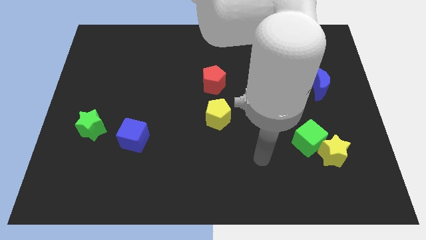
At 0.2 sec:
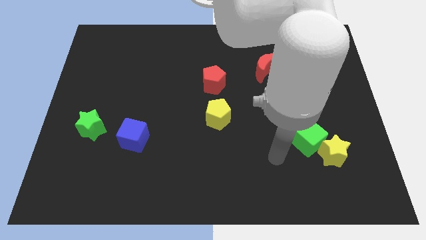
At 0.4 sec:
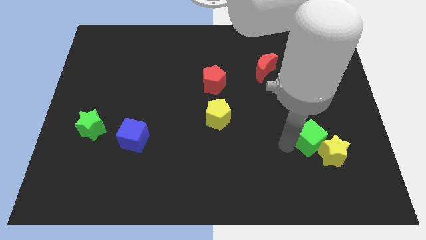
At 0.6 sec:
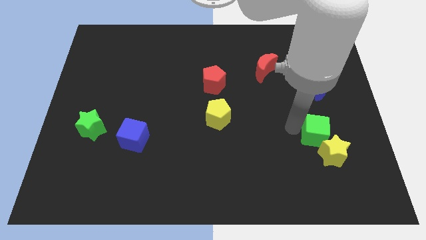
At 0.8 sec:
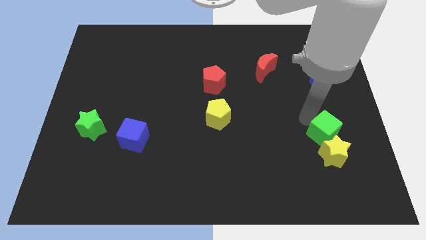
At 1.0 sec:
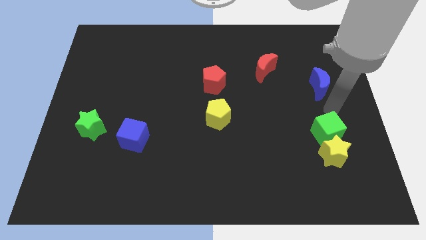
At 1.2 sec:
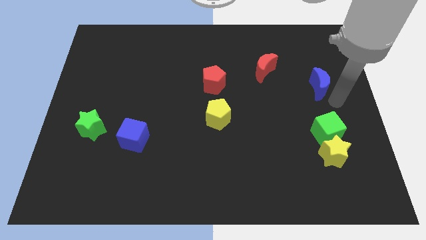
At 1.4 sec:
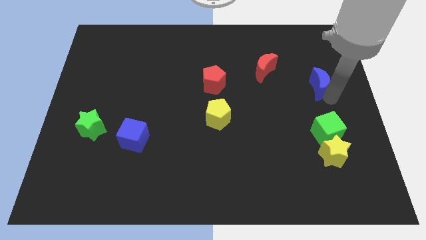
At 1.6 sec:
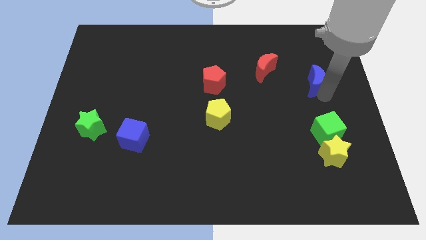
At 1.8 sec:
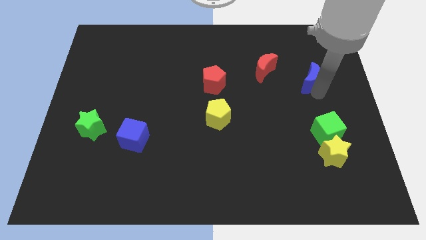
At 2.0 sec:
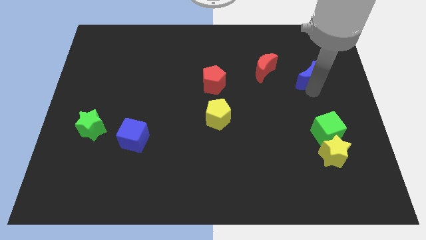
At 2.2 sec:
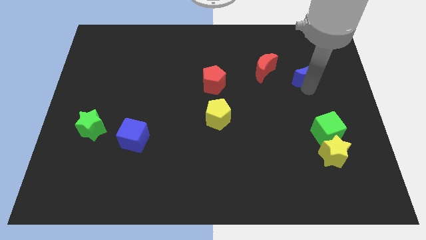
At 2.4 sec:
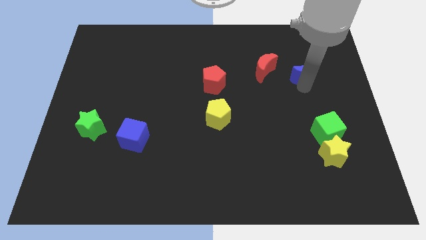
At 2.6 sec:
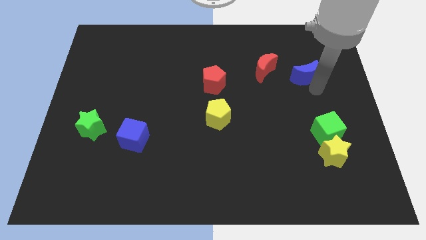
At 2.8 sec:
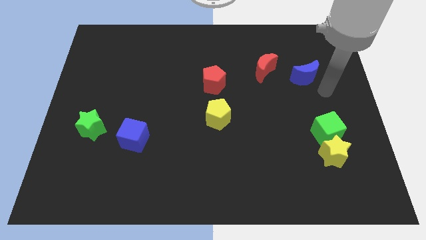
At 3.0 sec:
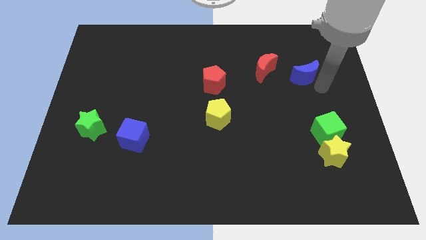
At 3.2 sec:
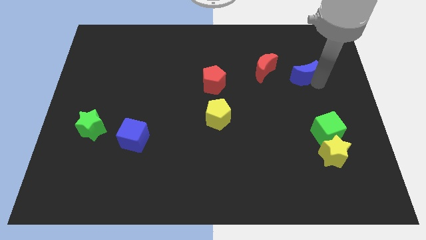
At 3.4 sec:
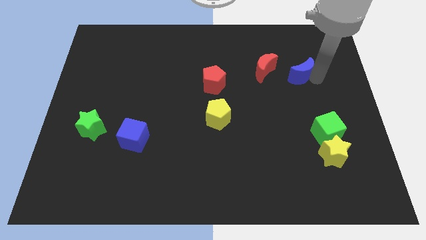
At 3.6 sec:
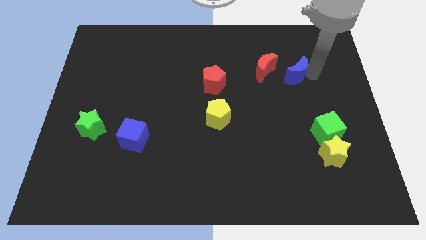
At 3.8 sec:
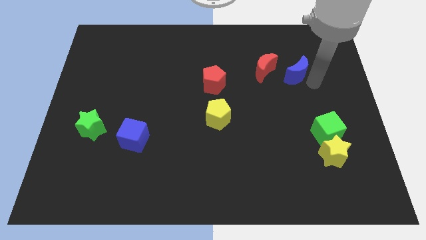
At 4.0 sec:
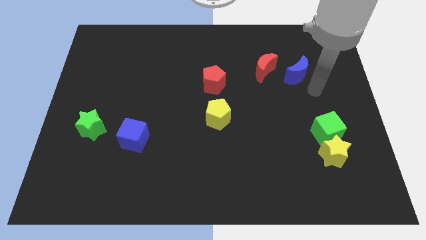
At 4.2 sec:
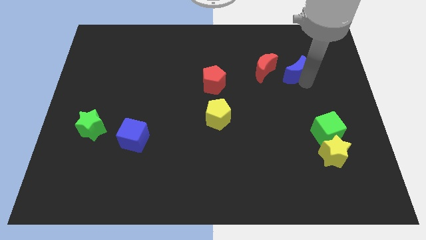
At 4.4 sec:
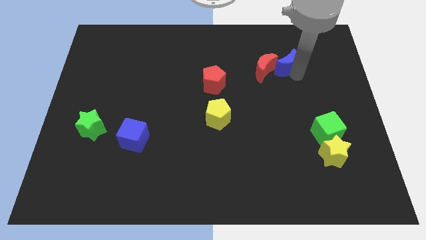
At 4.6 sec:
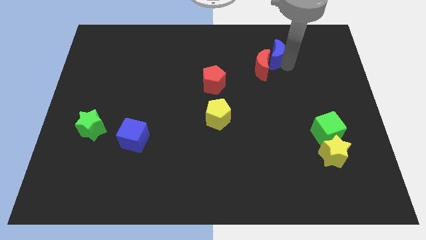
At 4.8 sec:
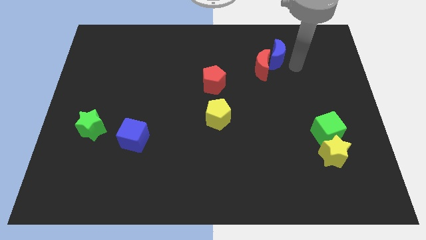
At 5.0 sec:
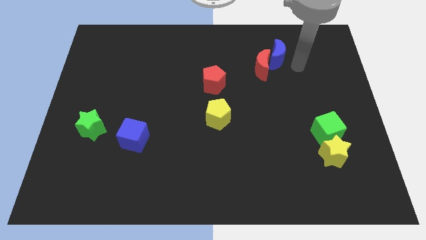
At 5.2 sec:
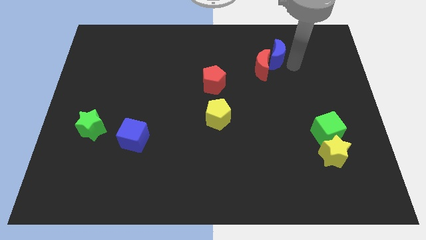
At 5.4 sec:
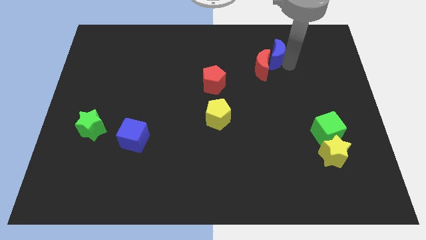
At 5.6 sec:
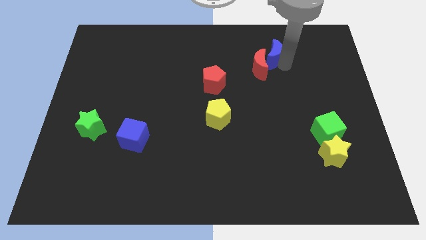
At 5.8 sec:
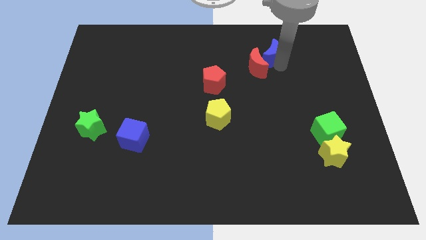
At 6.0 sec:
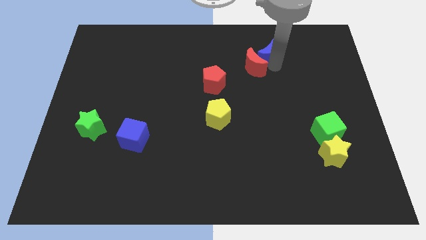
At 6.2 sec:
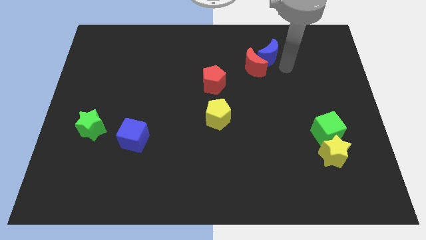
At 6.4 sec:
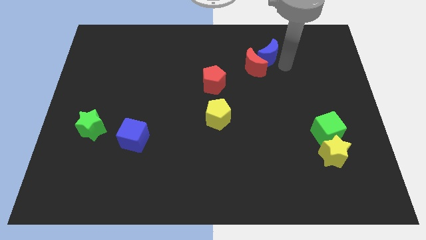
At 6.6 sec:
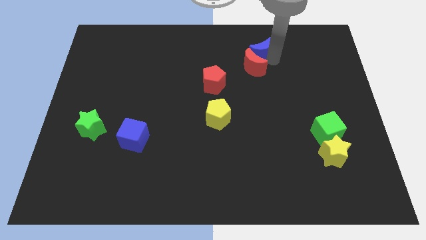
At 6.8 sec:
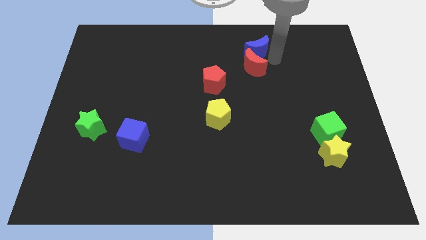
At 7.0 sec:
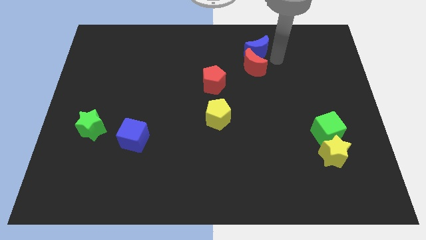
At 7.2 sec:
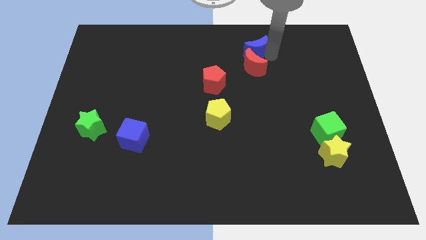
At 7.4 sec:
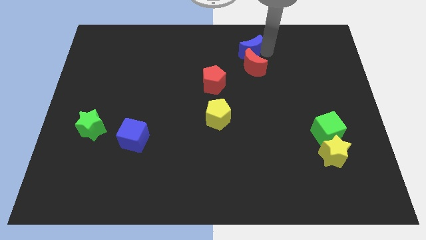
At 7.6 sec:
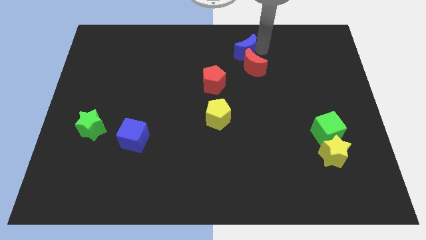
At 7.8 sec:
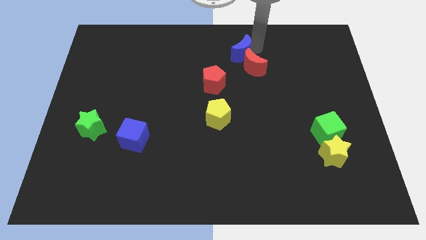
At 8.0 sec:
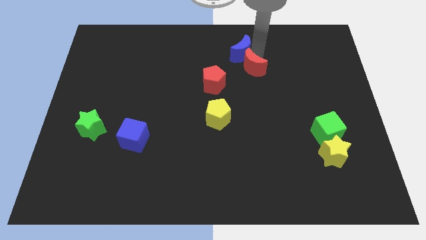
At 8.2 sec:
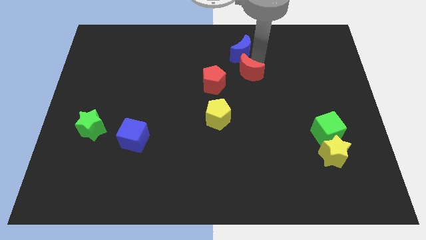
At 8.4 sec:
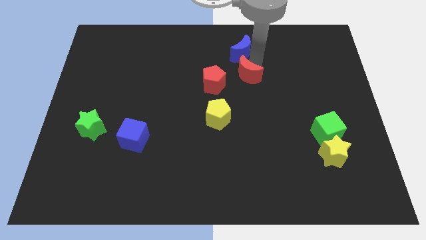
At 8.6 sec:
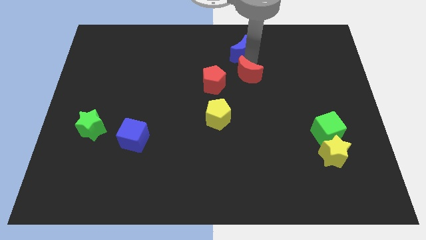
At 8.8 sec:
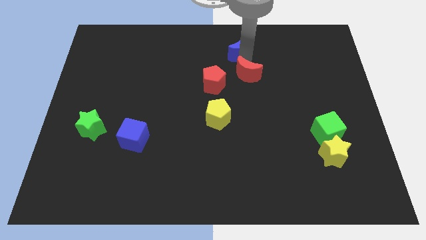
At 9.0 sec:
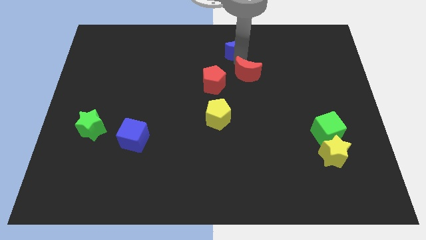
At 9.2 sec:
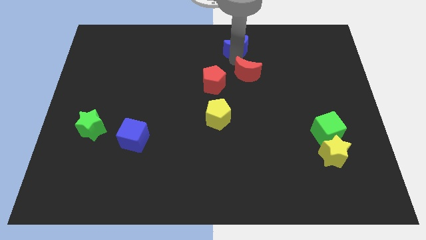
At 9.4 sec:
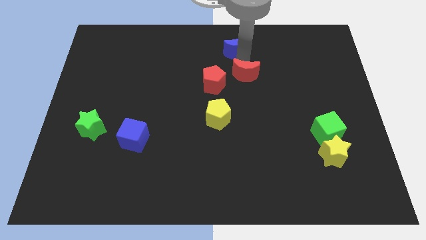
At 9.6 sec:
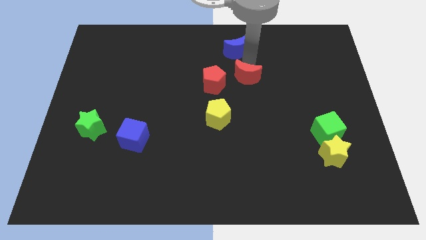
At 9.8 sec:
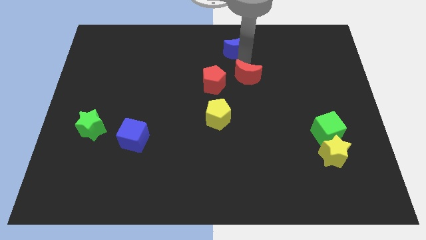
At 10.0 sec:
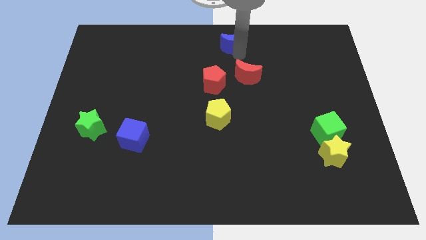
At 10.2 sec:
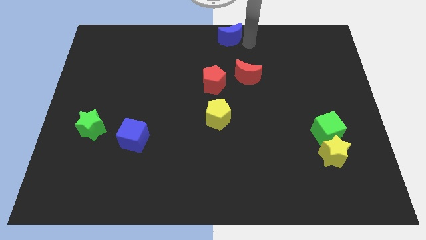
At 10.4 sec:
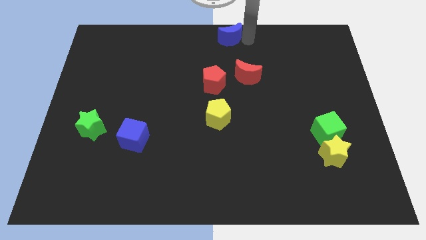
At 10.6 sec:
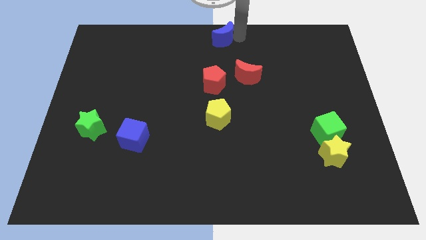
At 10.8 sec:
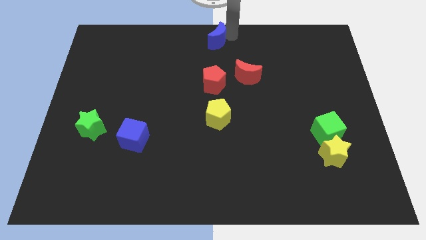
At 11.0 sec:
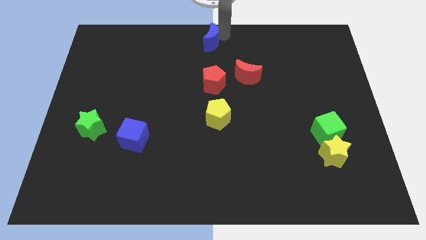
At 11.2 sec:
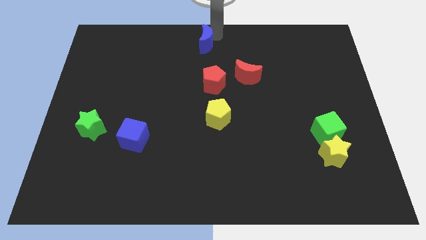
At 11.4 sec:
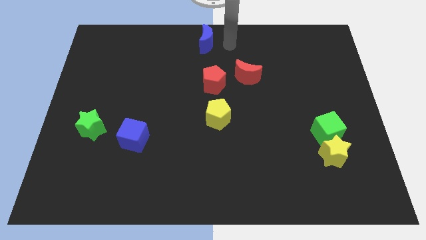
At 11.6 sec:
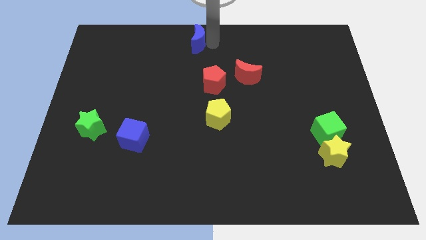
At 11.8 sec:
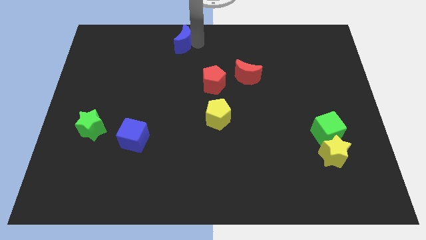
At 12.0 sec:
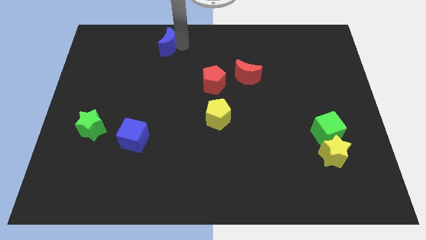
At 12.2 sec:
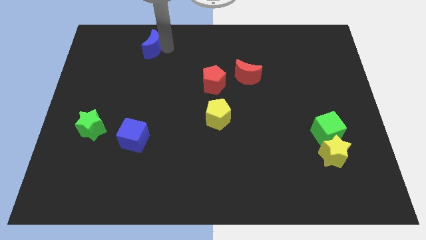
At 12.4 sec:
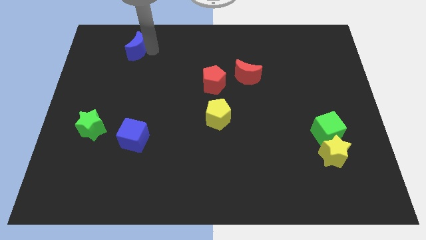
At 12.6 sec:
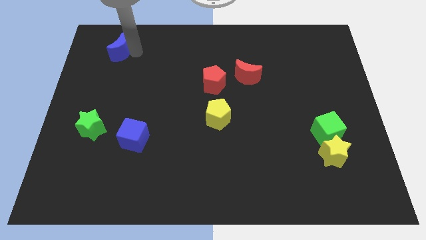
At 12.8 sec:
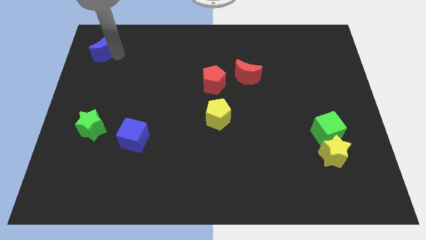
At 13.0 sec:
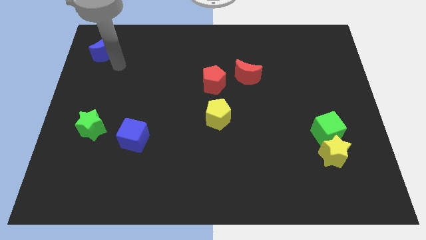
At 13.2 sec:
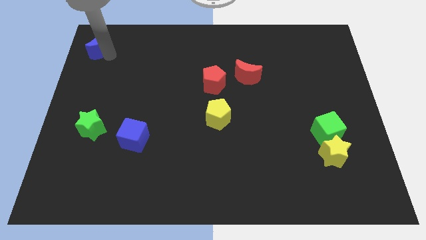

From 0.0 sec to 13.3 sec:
slide the blue moon to the upper left corner

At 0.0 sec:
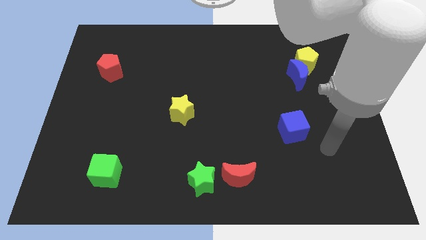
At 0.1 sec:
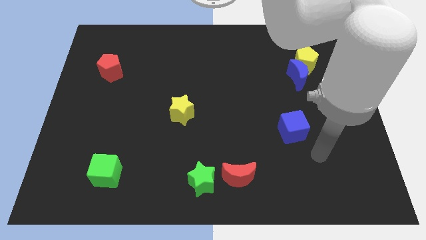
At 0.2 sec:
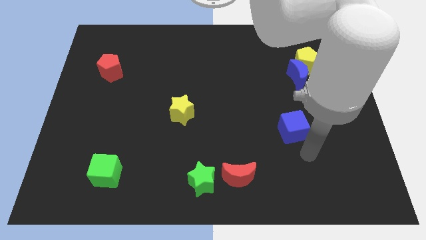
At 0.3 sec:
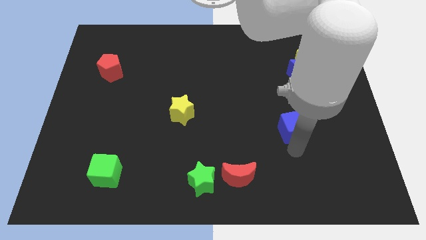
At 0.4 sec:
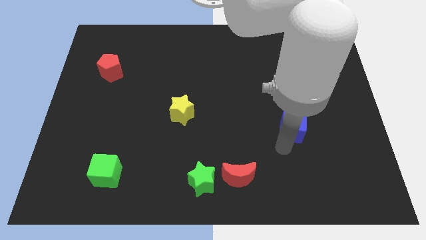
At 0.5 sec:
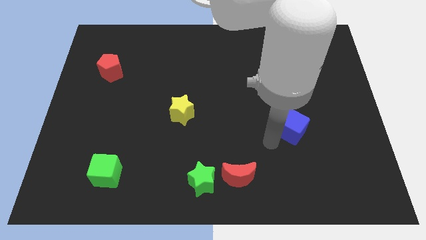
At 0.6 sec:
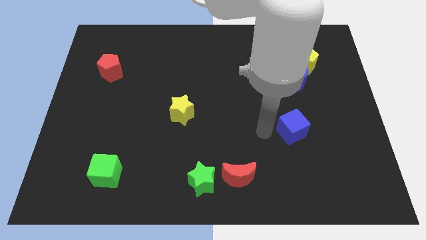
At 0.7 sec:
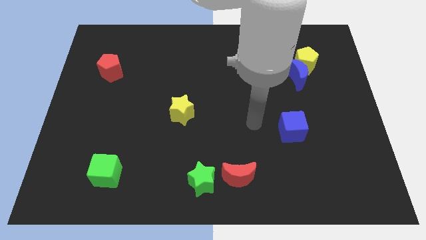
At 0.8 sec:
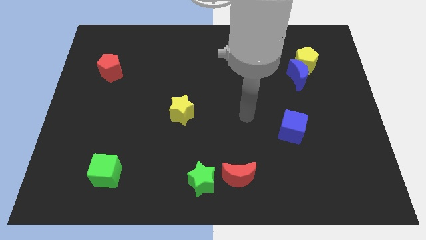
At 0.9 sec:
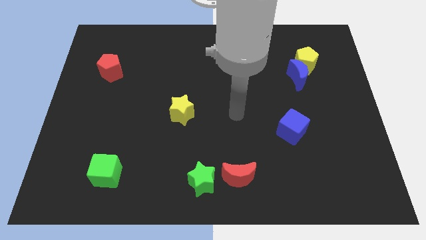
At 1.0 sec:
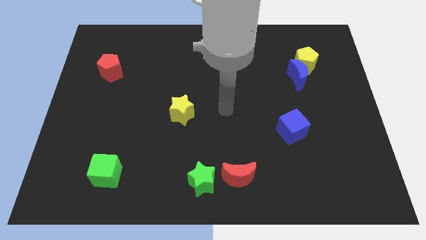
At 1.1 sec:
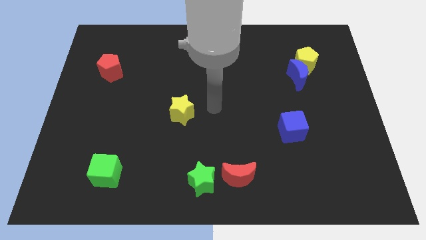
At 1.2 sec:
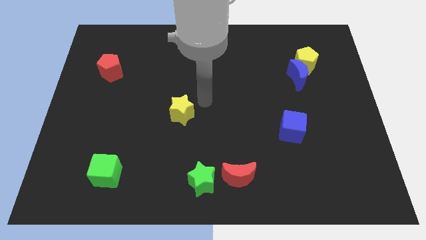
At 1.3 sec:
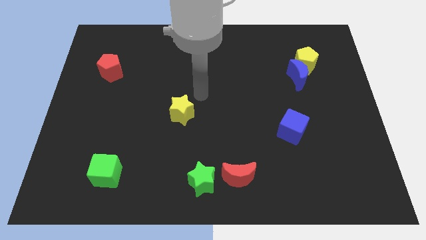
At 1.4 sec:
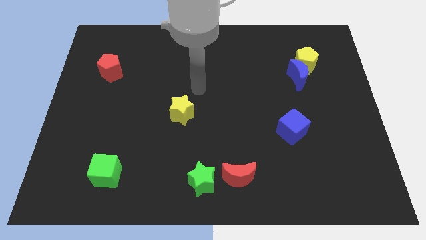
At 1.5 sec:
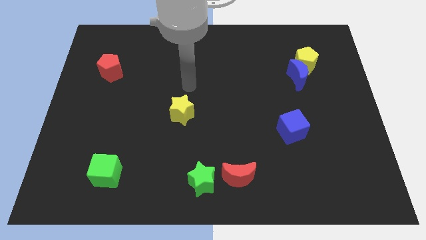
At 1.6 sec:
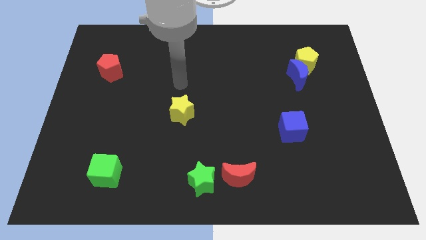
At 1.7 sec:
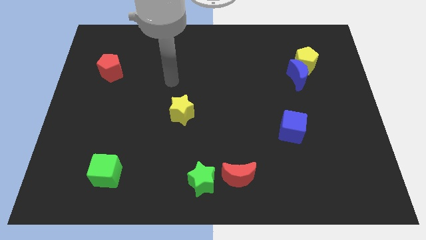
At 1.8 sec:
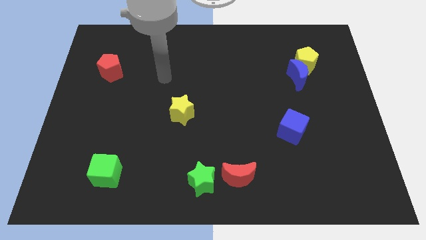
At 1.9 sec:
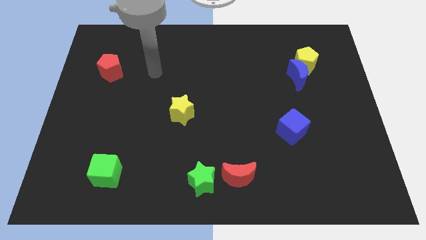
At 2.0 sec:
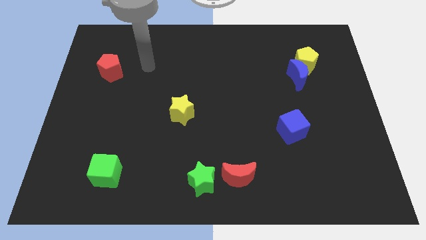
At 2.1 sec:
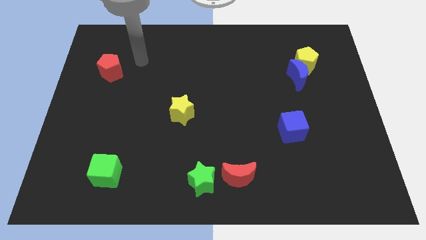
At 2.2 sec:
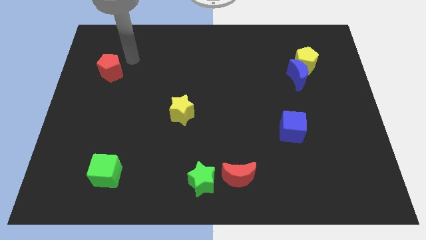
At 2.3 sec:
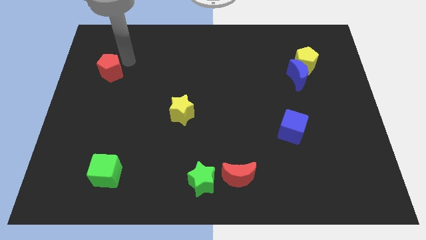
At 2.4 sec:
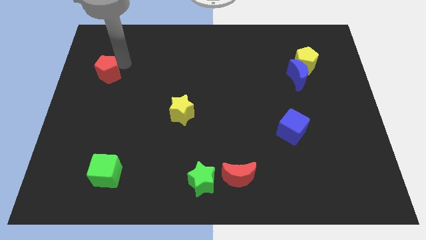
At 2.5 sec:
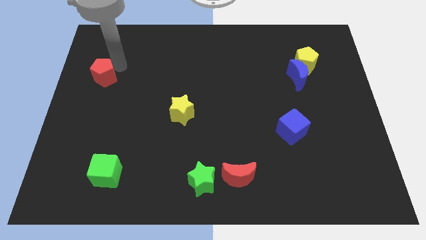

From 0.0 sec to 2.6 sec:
slide the red pentagon to the left side
